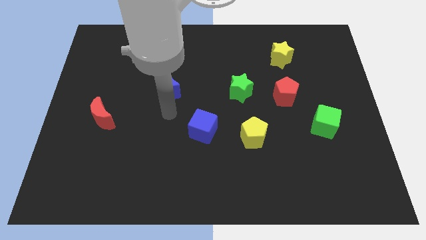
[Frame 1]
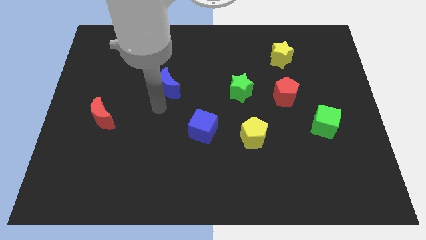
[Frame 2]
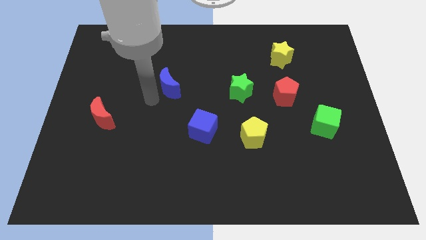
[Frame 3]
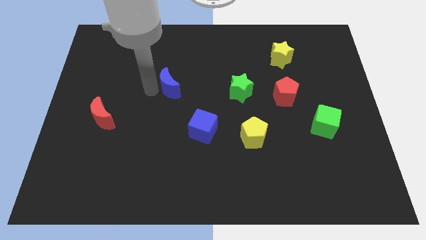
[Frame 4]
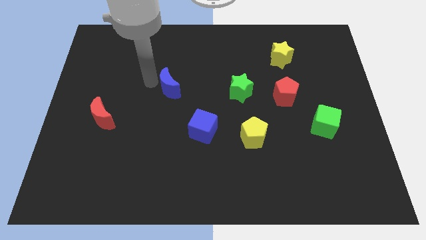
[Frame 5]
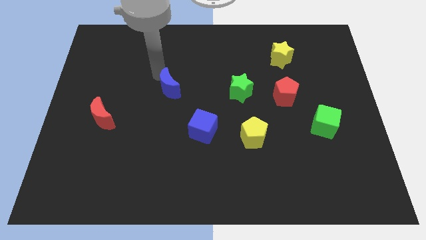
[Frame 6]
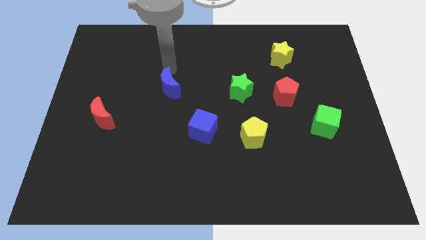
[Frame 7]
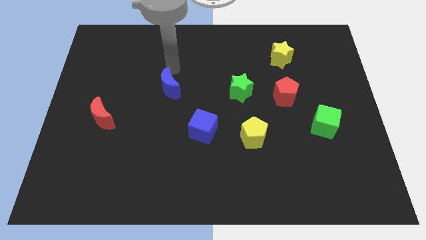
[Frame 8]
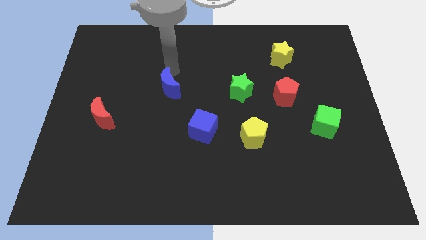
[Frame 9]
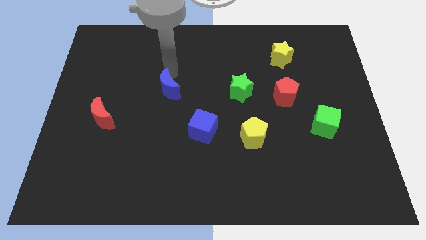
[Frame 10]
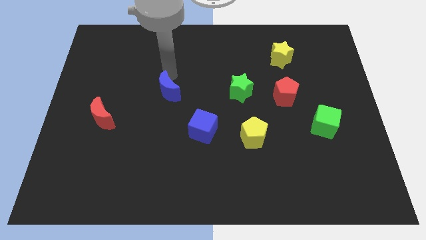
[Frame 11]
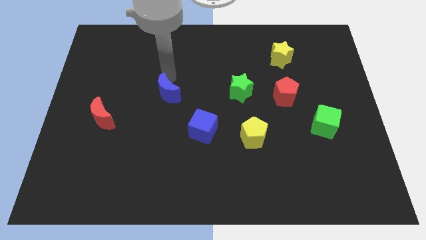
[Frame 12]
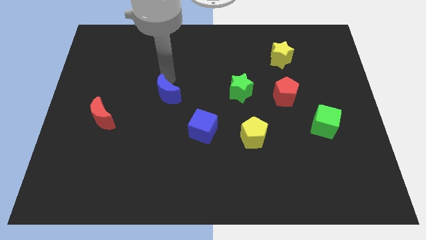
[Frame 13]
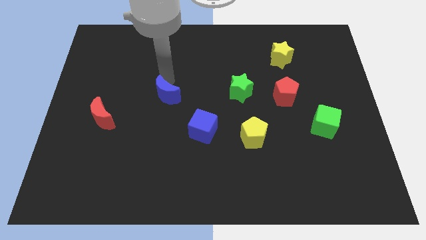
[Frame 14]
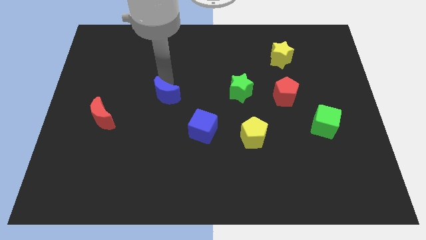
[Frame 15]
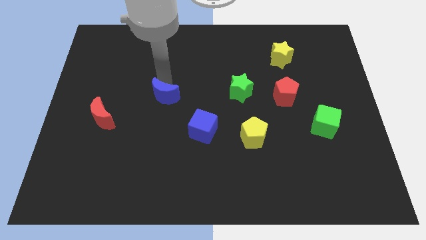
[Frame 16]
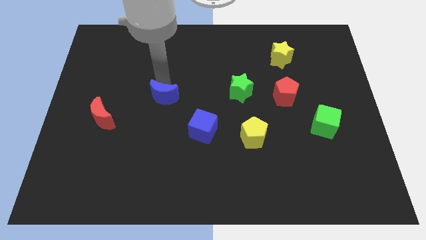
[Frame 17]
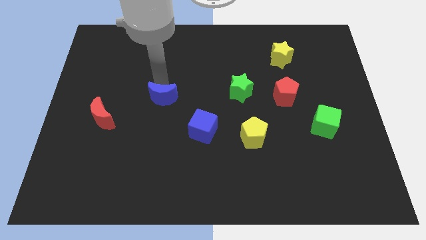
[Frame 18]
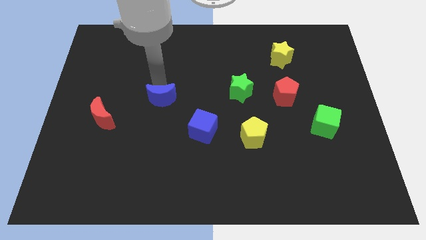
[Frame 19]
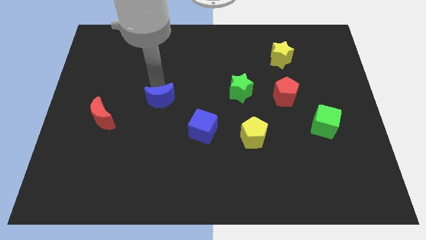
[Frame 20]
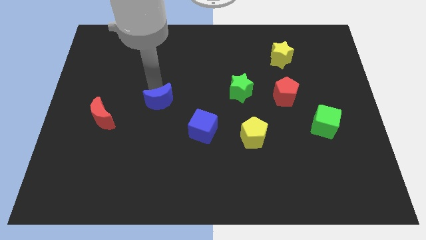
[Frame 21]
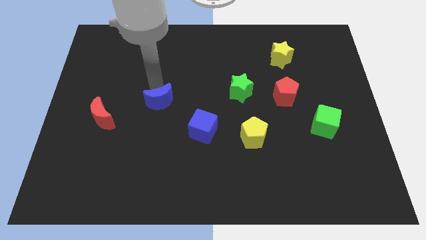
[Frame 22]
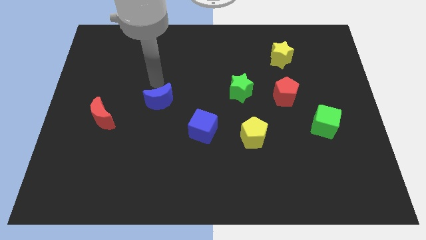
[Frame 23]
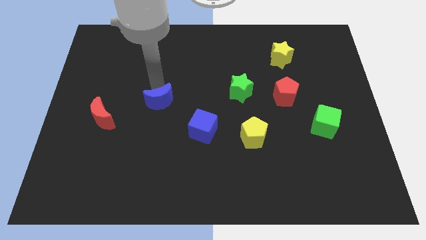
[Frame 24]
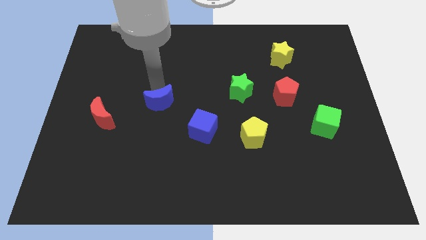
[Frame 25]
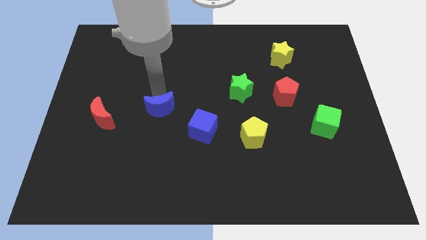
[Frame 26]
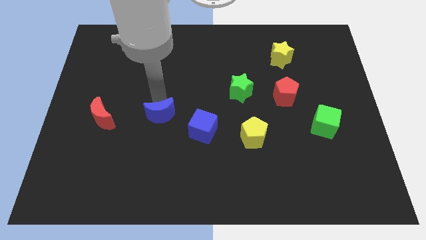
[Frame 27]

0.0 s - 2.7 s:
slide the blue moon a little bit down

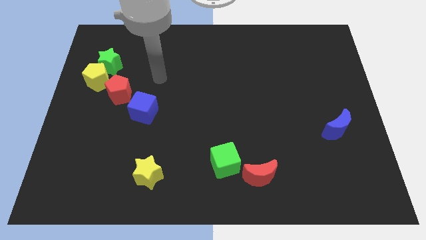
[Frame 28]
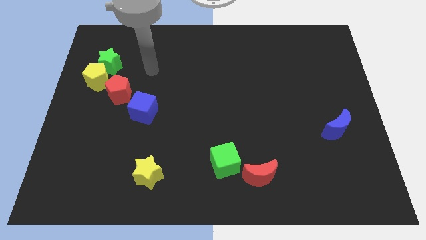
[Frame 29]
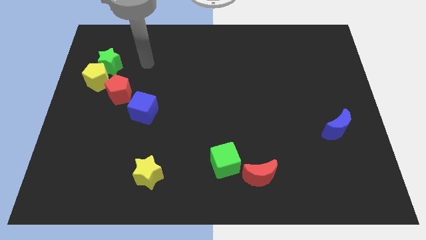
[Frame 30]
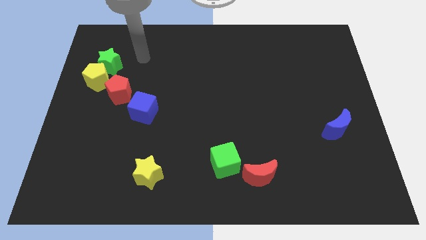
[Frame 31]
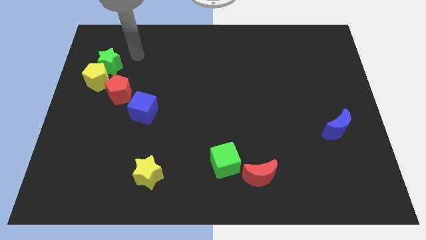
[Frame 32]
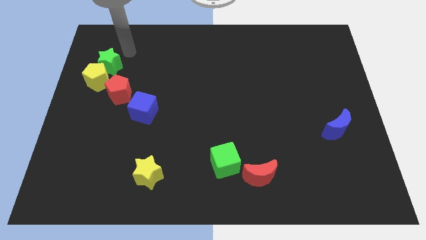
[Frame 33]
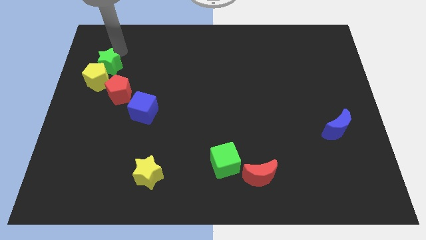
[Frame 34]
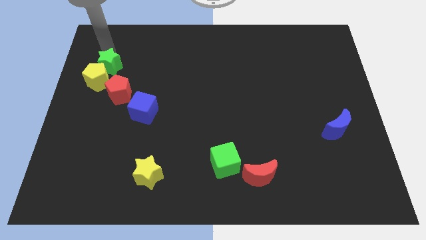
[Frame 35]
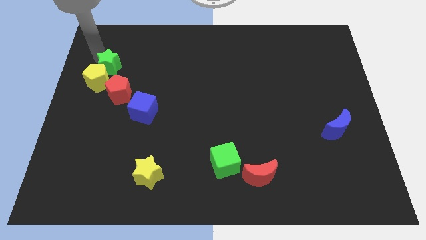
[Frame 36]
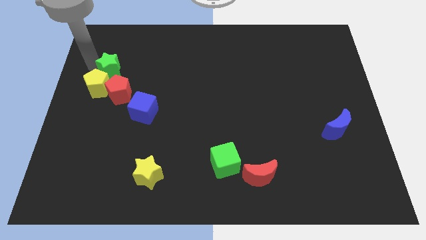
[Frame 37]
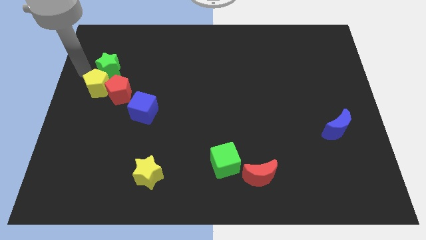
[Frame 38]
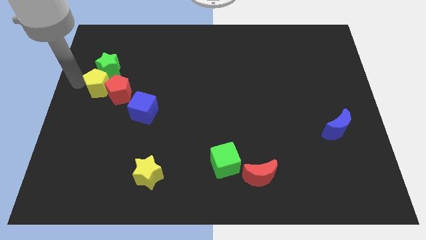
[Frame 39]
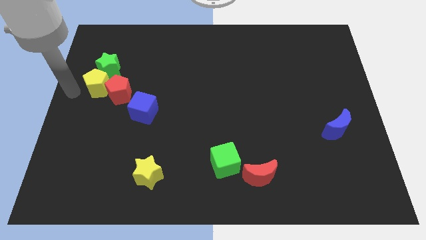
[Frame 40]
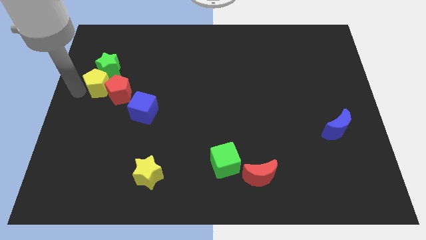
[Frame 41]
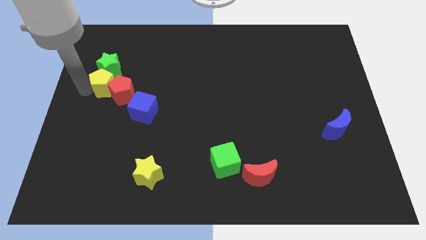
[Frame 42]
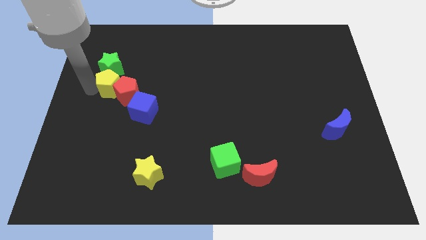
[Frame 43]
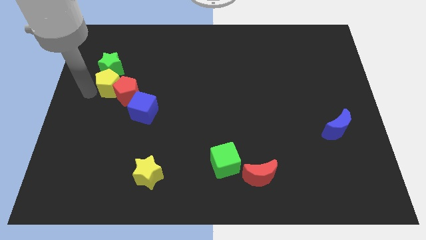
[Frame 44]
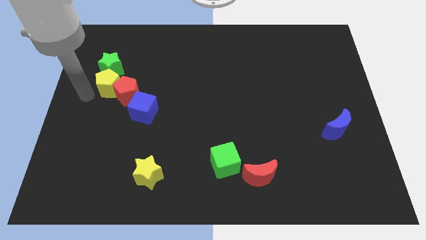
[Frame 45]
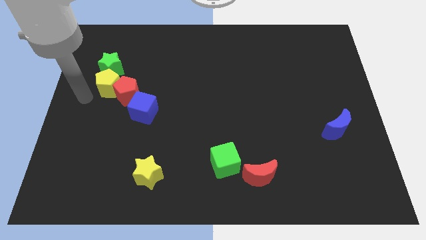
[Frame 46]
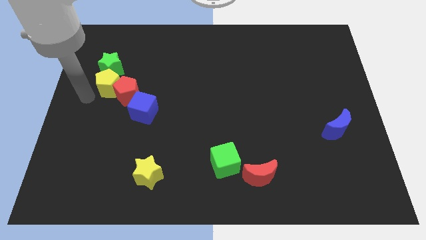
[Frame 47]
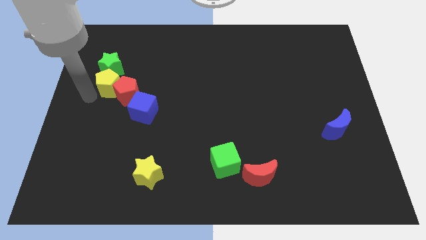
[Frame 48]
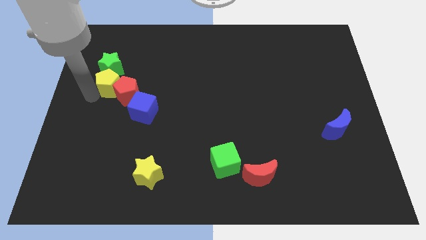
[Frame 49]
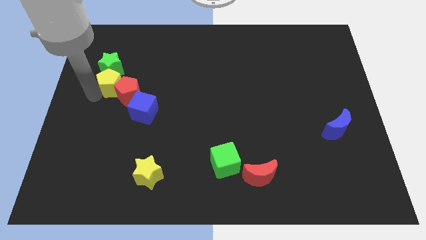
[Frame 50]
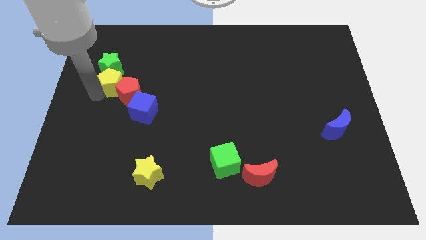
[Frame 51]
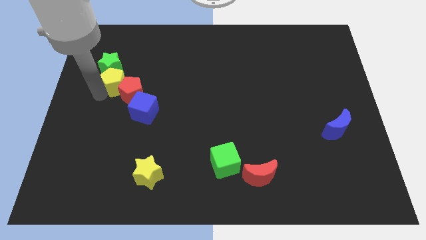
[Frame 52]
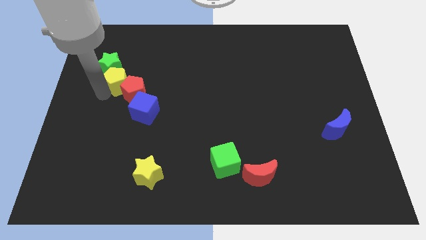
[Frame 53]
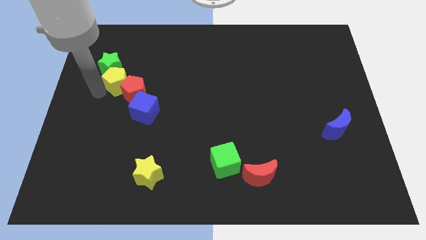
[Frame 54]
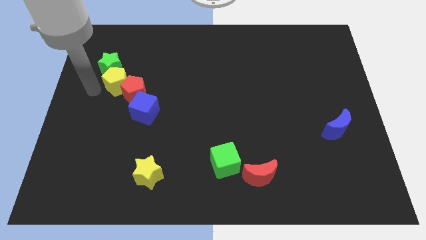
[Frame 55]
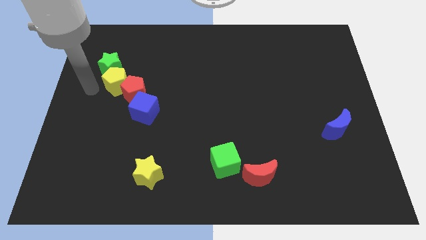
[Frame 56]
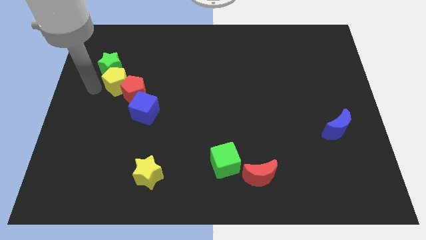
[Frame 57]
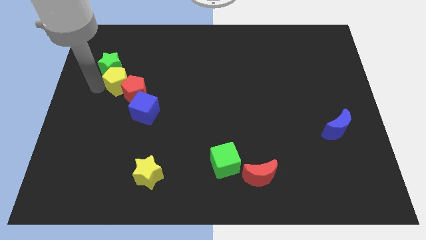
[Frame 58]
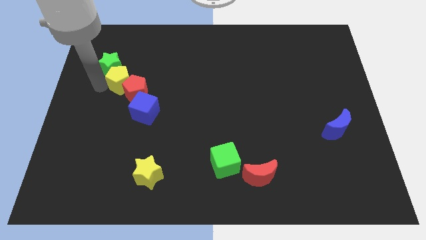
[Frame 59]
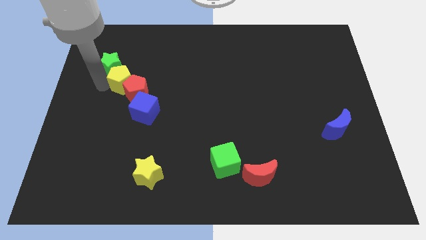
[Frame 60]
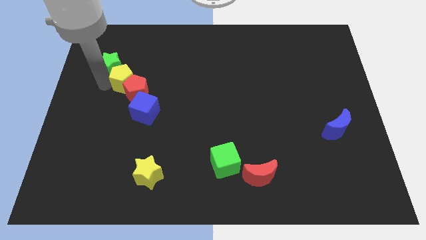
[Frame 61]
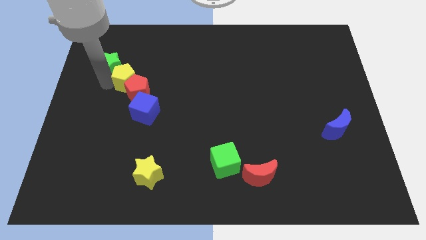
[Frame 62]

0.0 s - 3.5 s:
slightly move the yellow pentagon to the right

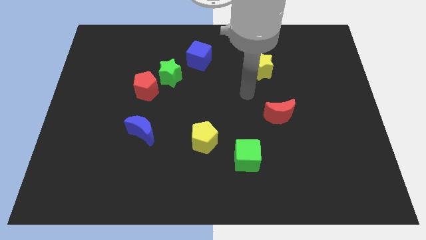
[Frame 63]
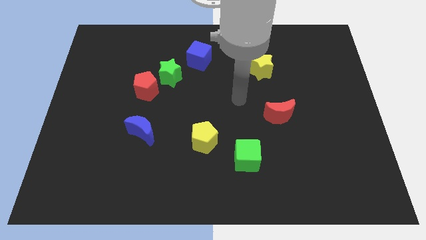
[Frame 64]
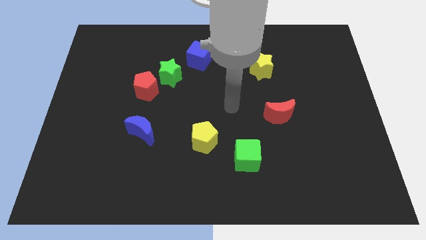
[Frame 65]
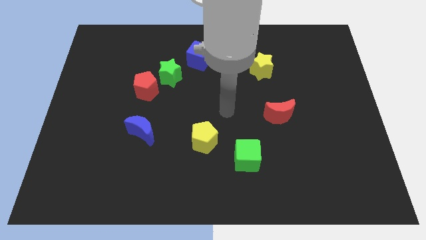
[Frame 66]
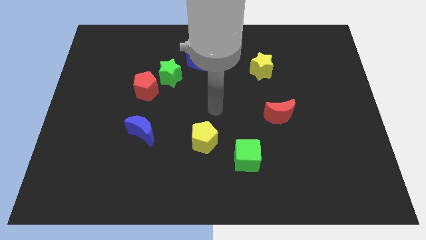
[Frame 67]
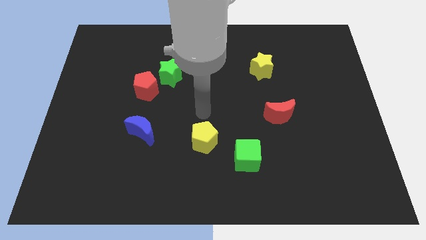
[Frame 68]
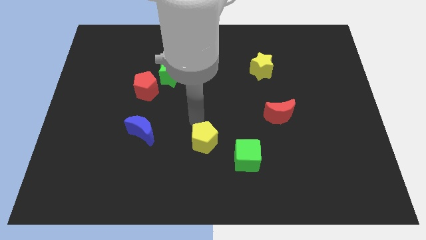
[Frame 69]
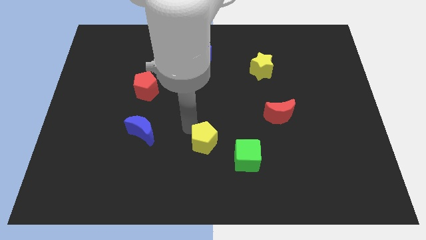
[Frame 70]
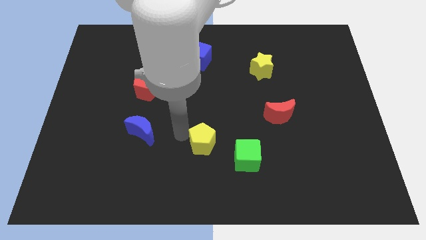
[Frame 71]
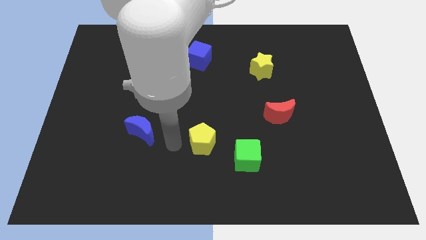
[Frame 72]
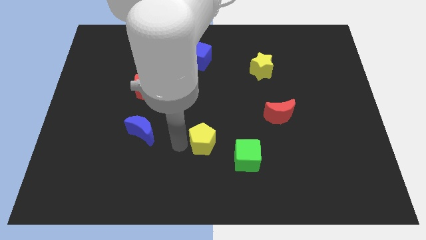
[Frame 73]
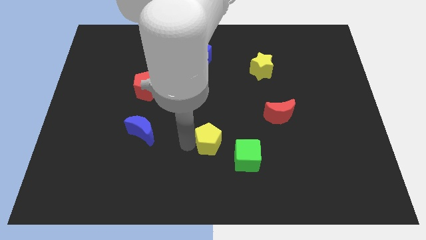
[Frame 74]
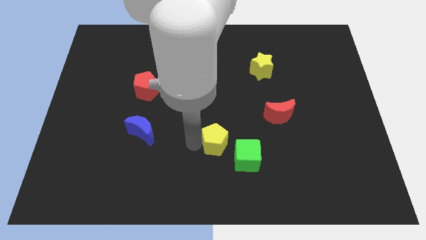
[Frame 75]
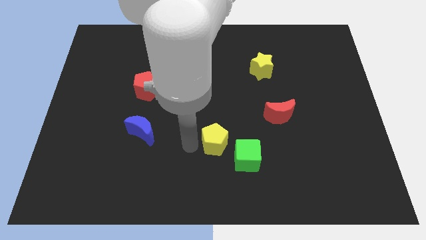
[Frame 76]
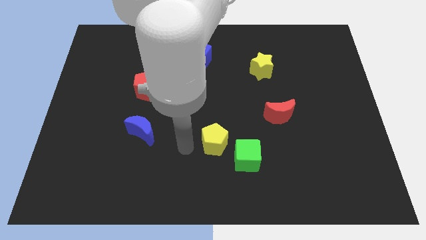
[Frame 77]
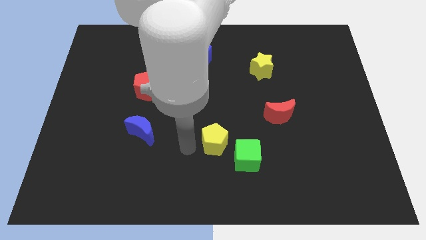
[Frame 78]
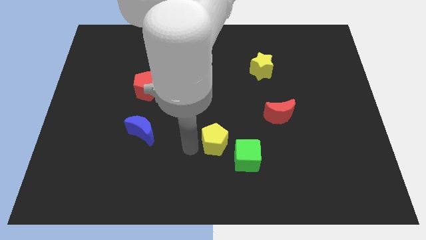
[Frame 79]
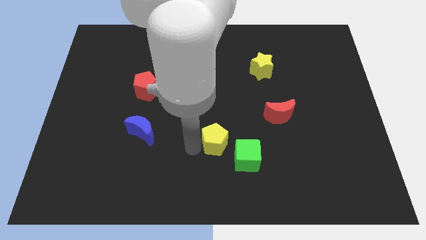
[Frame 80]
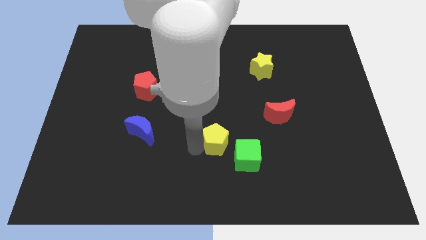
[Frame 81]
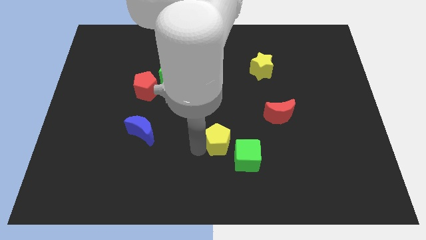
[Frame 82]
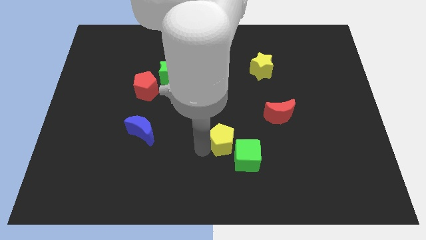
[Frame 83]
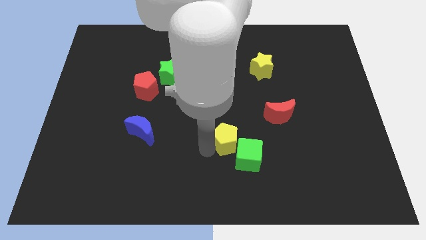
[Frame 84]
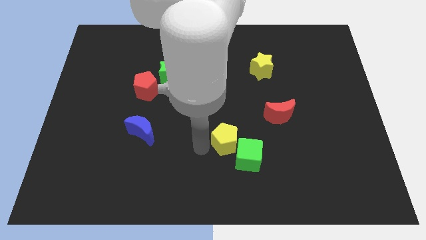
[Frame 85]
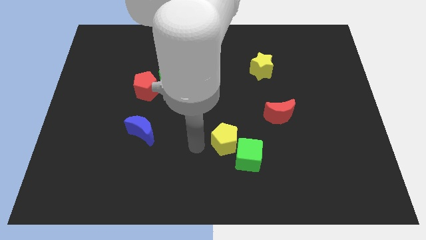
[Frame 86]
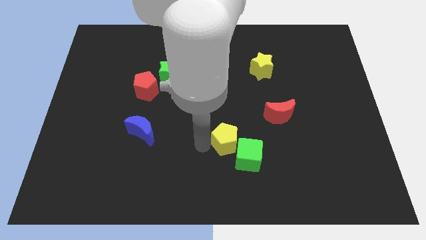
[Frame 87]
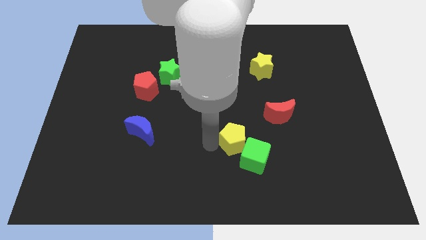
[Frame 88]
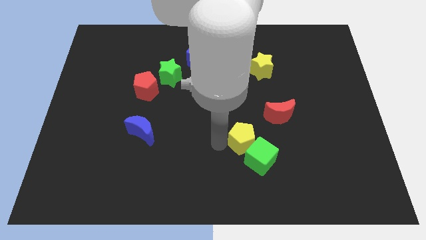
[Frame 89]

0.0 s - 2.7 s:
slightly push the yellow pentagon right
